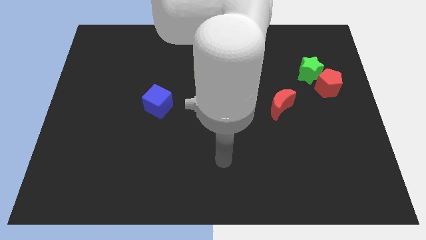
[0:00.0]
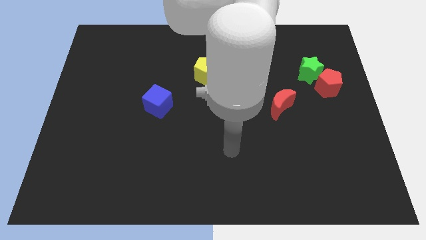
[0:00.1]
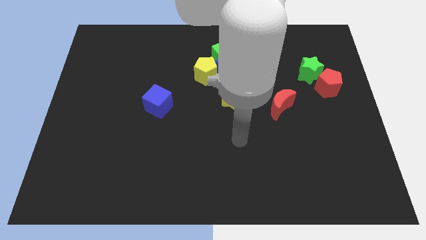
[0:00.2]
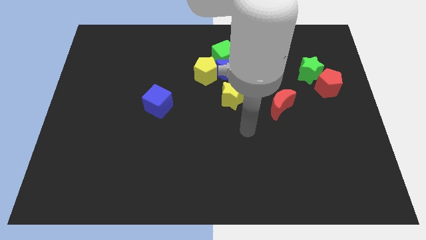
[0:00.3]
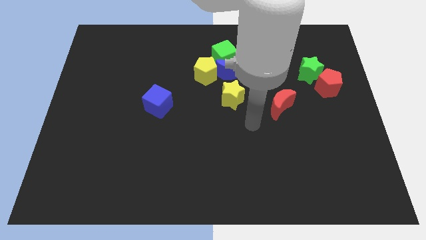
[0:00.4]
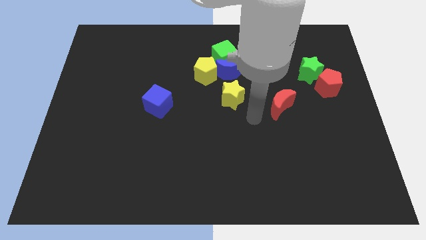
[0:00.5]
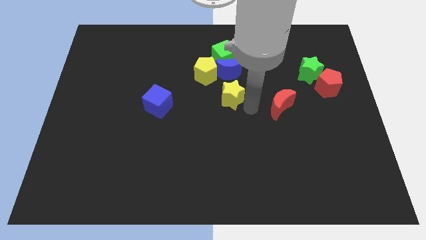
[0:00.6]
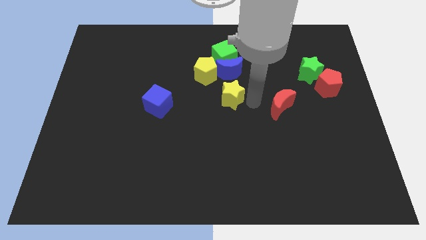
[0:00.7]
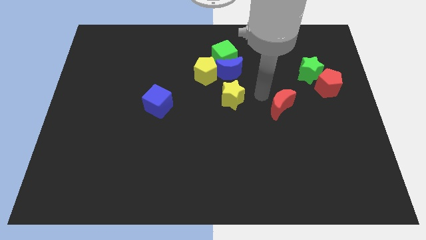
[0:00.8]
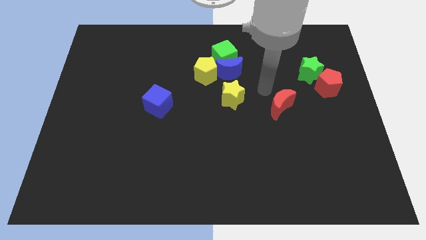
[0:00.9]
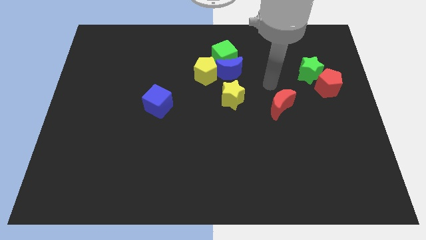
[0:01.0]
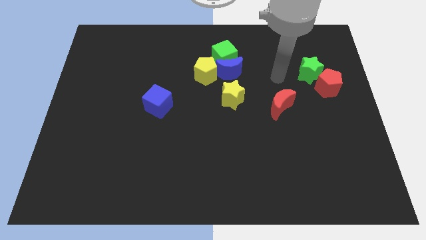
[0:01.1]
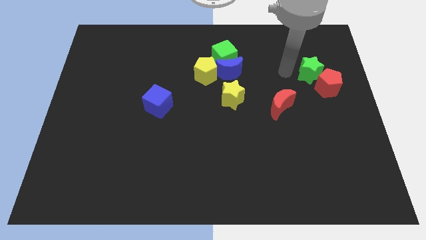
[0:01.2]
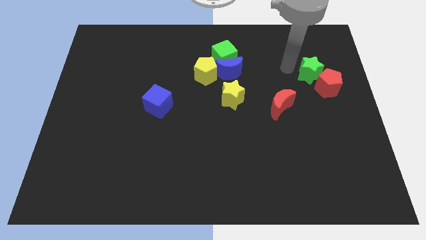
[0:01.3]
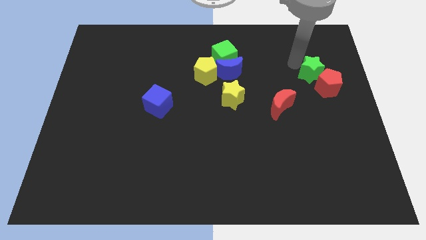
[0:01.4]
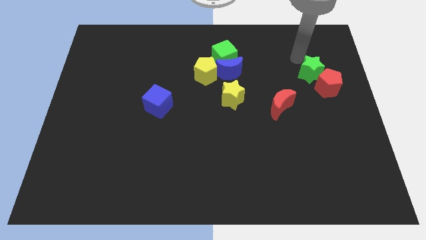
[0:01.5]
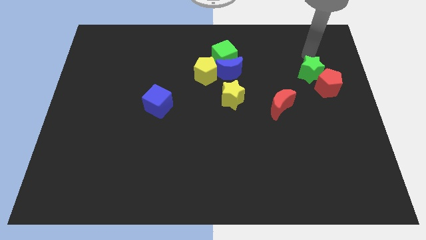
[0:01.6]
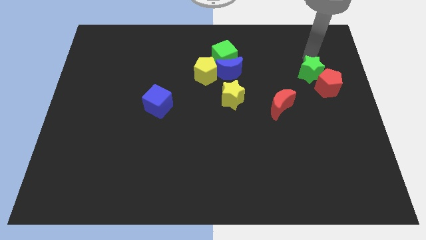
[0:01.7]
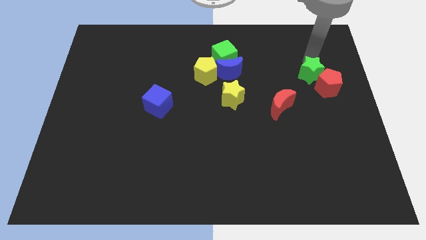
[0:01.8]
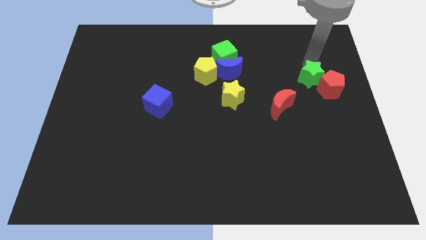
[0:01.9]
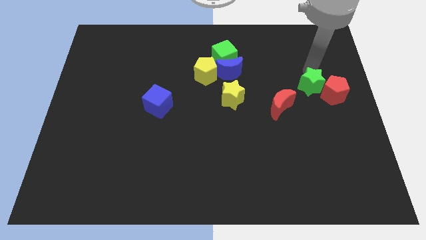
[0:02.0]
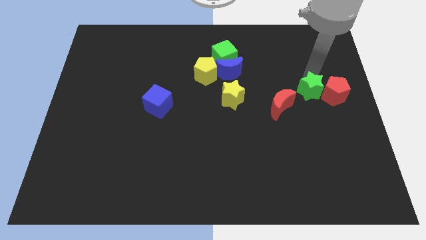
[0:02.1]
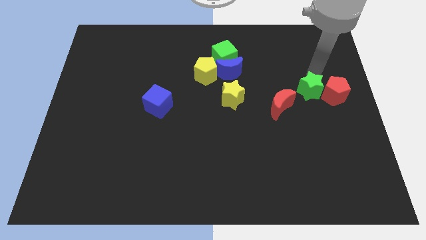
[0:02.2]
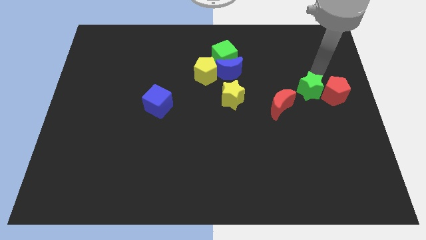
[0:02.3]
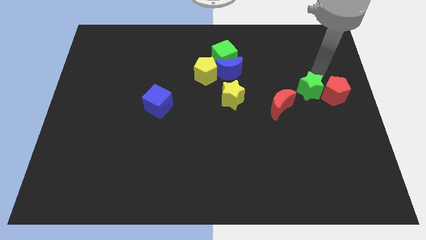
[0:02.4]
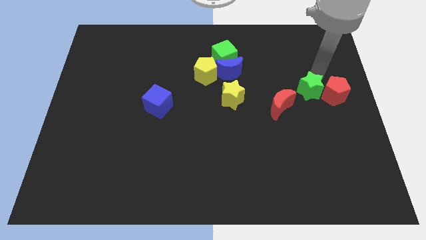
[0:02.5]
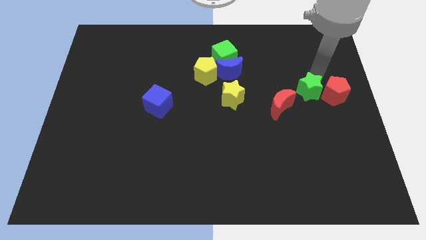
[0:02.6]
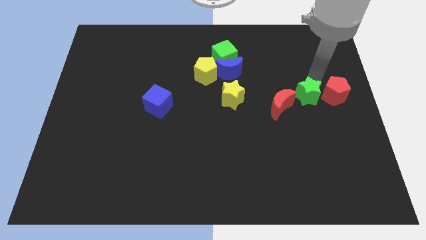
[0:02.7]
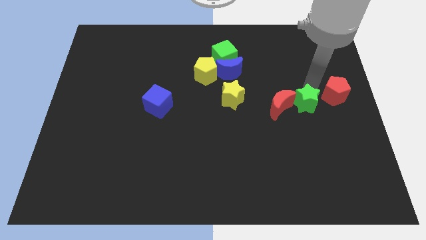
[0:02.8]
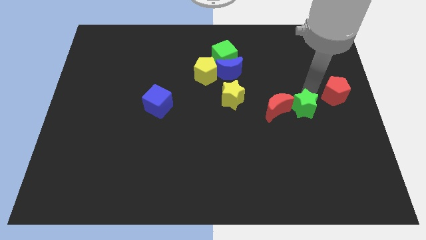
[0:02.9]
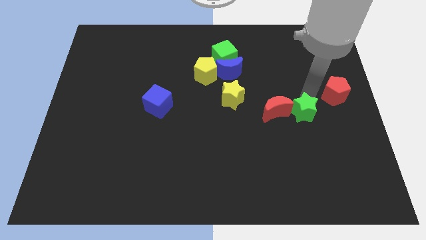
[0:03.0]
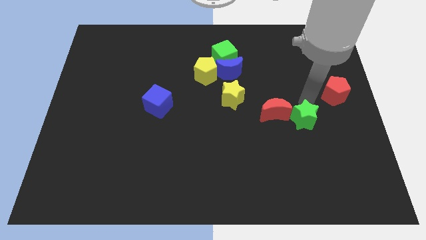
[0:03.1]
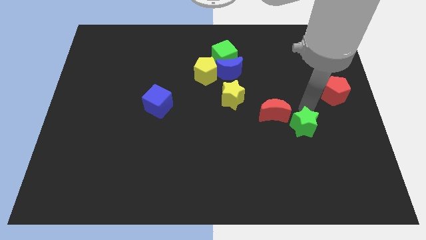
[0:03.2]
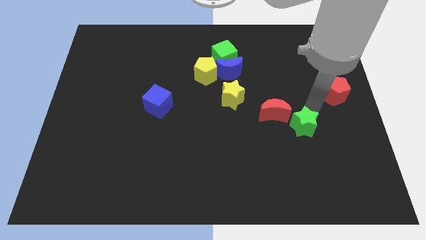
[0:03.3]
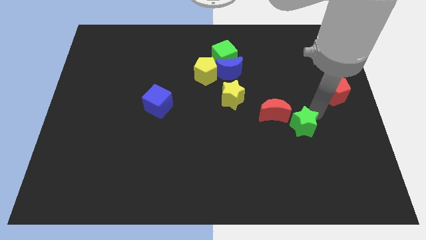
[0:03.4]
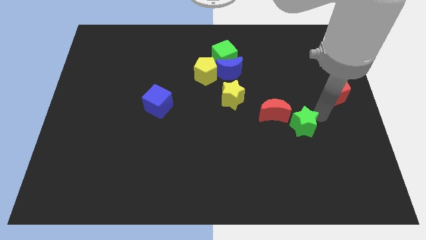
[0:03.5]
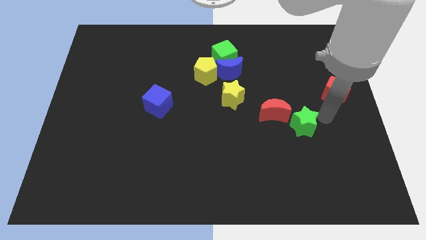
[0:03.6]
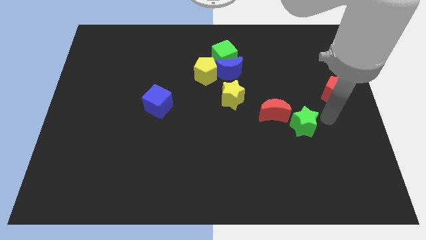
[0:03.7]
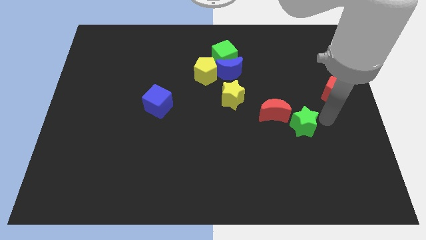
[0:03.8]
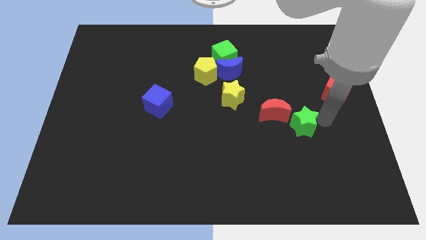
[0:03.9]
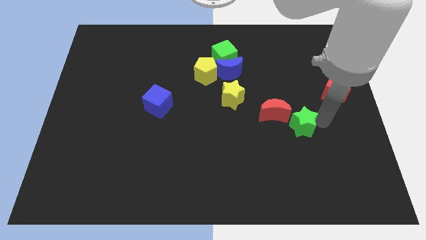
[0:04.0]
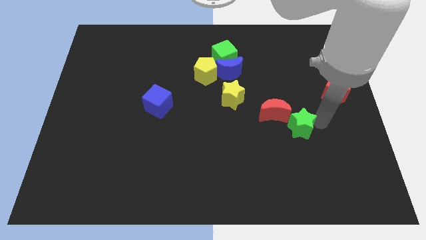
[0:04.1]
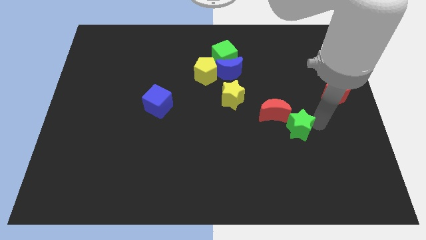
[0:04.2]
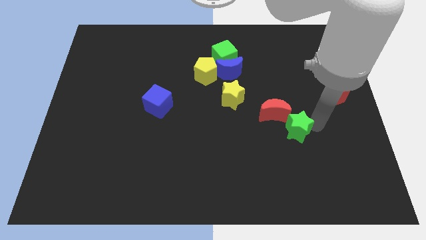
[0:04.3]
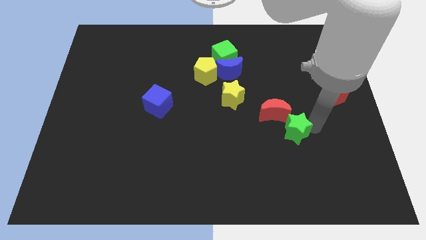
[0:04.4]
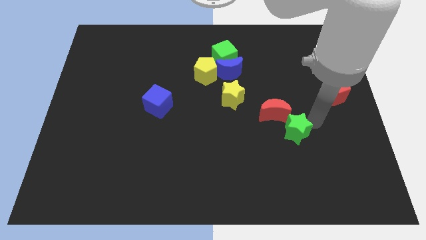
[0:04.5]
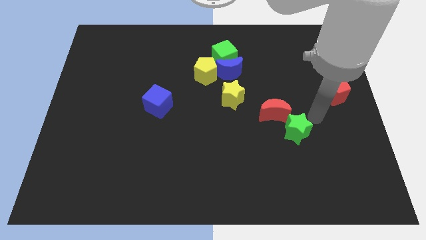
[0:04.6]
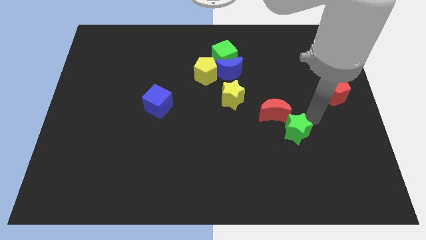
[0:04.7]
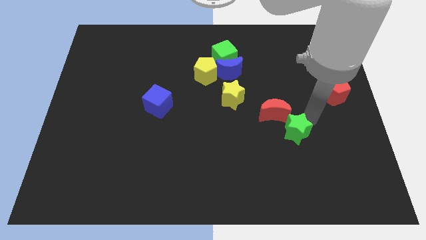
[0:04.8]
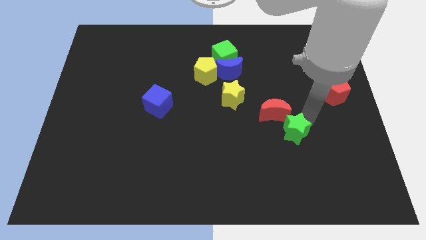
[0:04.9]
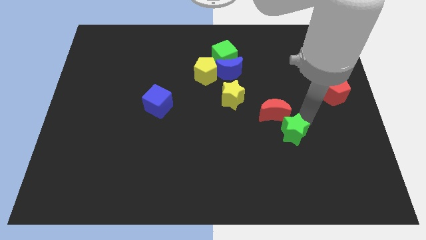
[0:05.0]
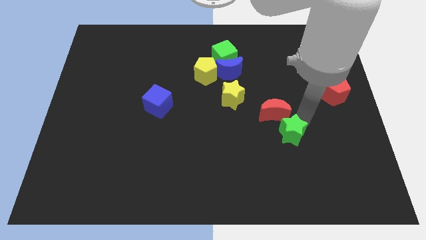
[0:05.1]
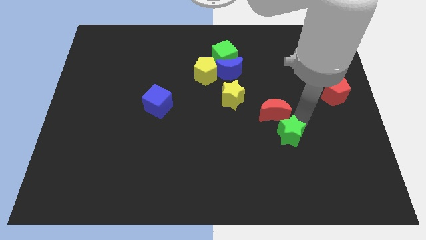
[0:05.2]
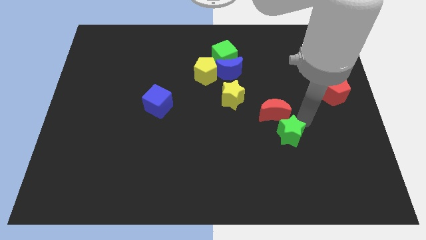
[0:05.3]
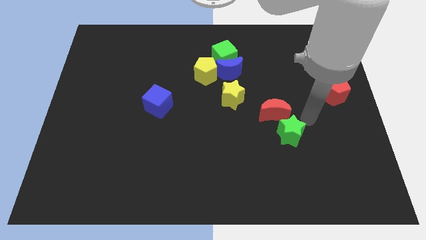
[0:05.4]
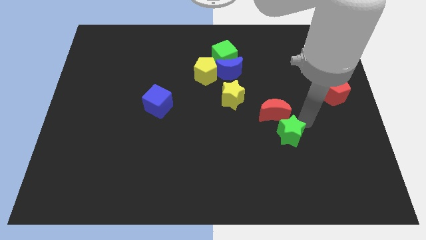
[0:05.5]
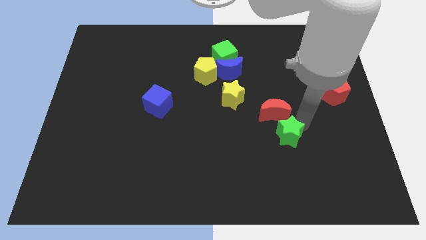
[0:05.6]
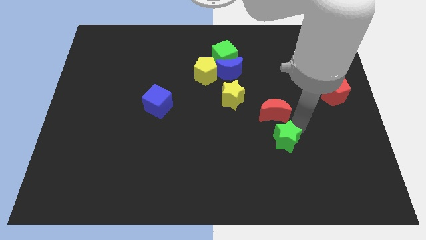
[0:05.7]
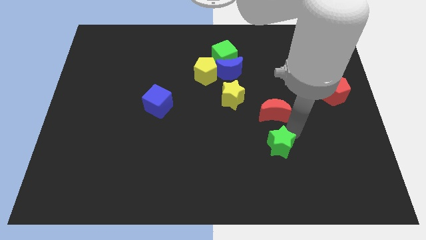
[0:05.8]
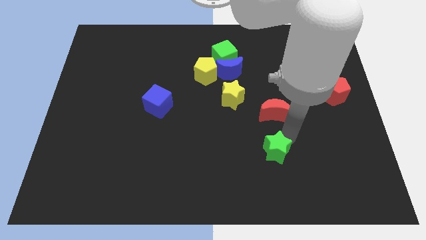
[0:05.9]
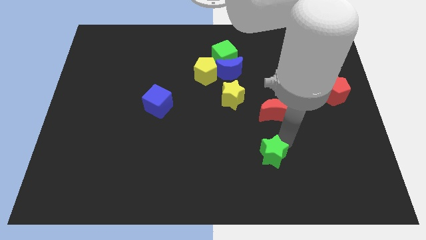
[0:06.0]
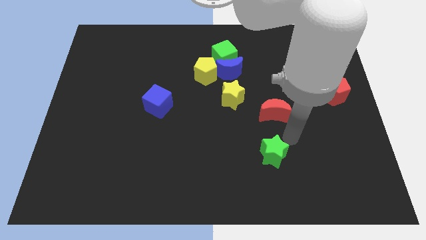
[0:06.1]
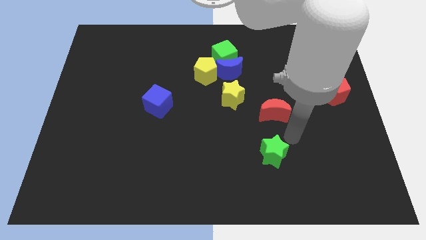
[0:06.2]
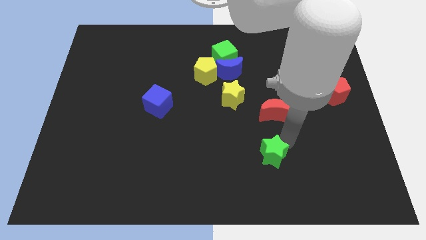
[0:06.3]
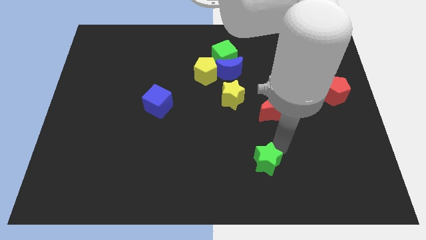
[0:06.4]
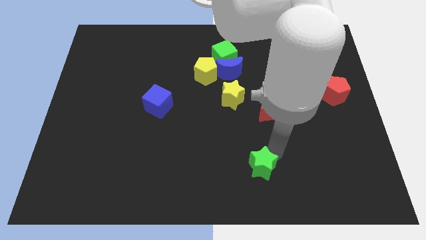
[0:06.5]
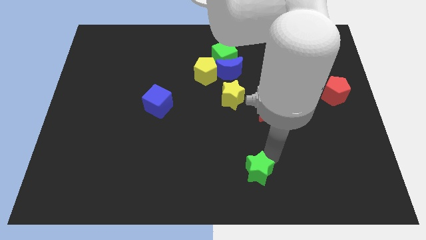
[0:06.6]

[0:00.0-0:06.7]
slide the green star to the bottom
